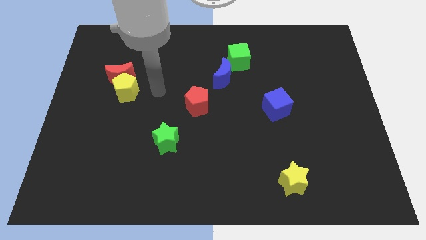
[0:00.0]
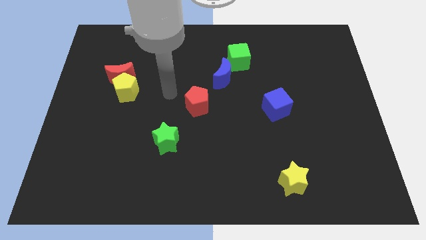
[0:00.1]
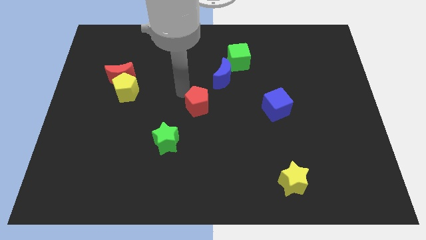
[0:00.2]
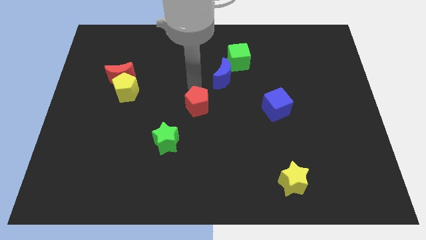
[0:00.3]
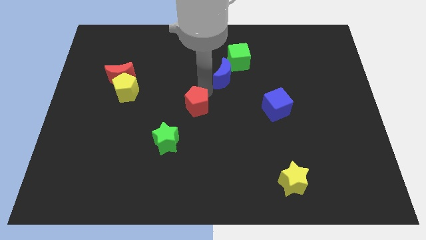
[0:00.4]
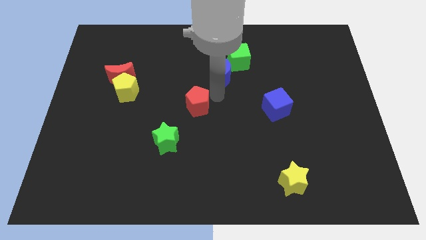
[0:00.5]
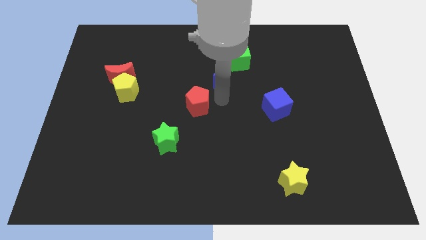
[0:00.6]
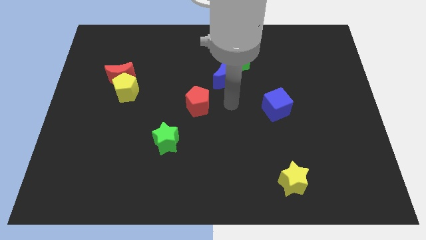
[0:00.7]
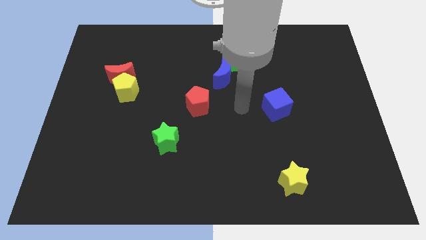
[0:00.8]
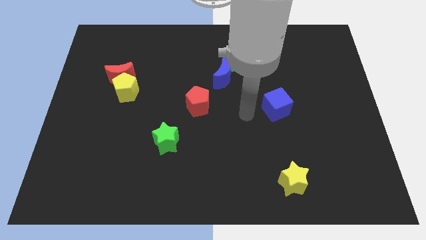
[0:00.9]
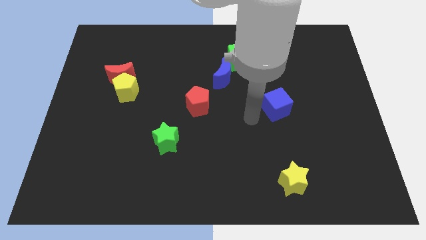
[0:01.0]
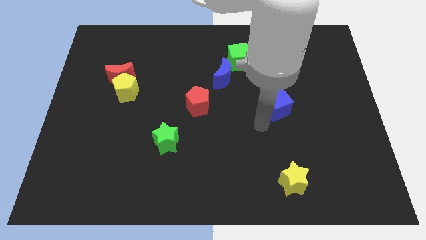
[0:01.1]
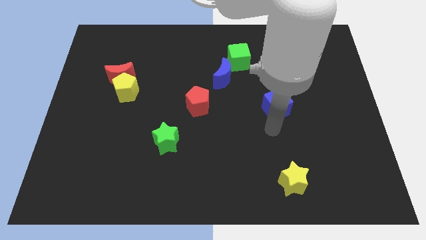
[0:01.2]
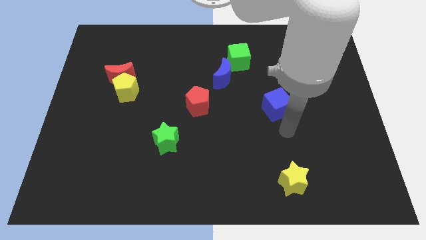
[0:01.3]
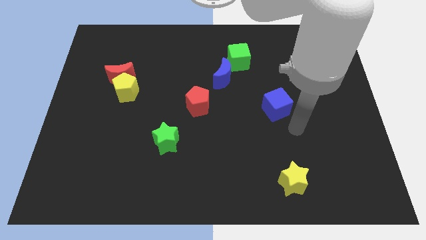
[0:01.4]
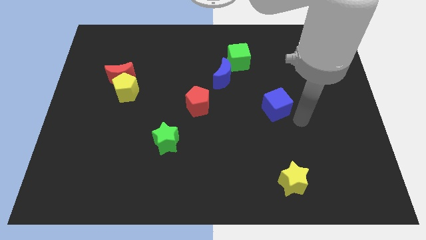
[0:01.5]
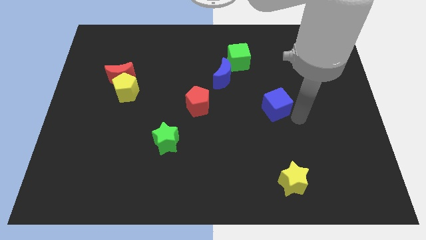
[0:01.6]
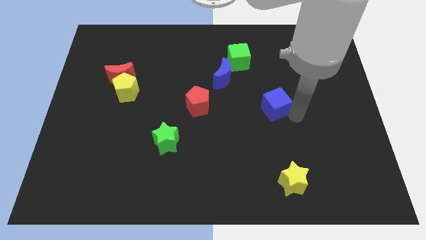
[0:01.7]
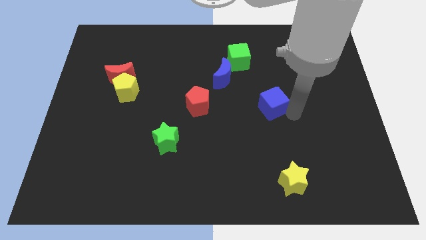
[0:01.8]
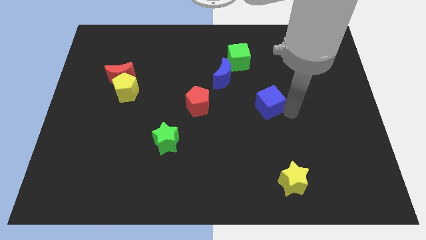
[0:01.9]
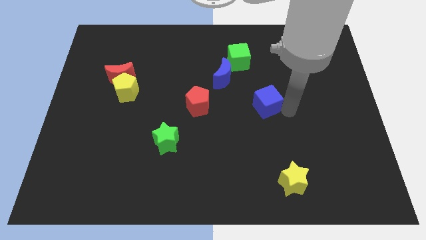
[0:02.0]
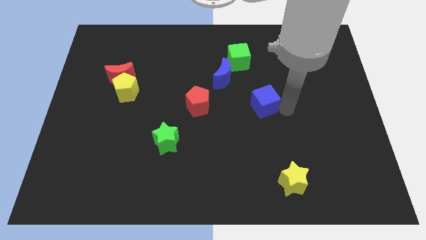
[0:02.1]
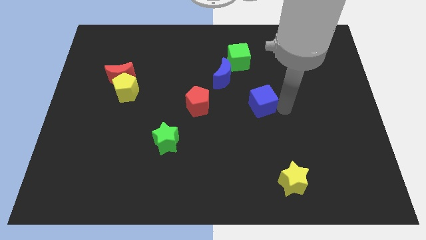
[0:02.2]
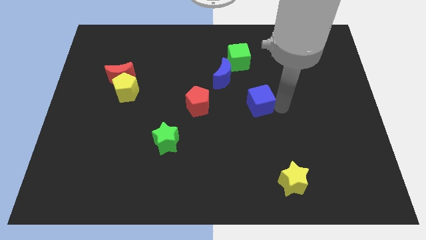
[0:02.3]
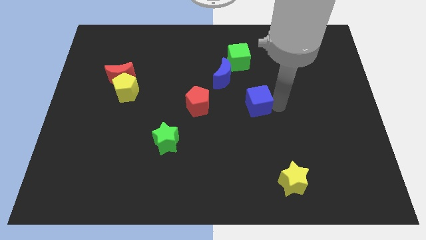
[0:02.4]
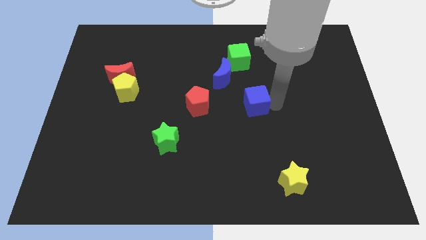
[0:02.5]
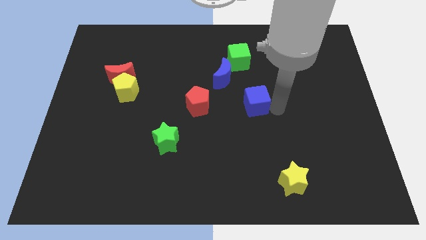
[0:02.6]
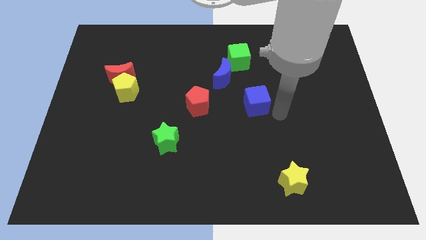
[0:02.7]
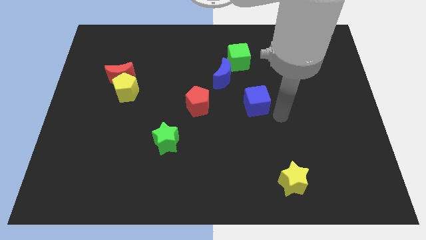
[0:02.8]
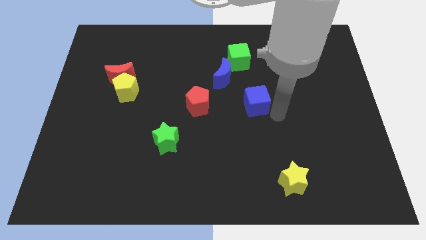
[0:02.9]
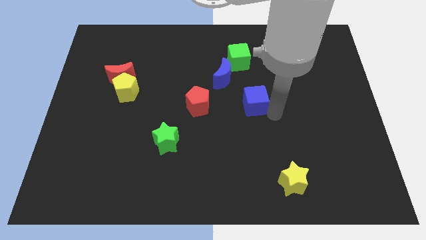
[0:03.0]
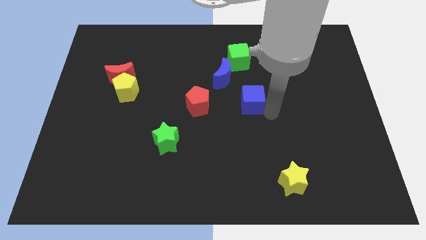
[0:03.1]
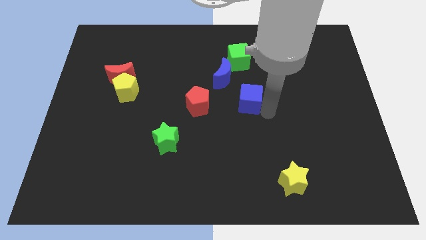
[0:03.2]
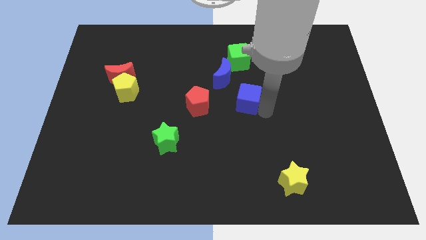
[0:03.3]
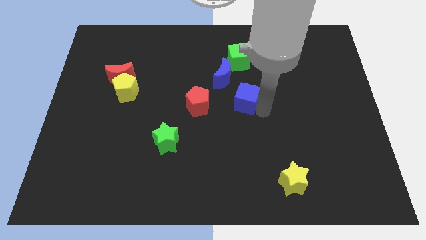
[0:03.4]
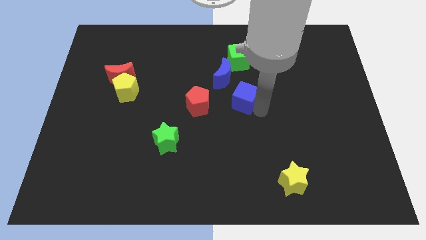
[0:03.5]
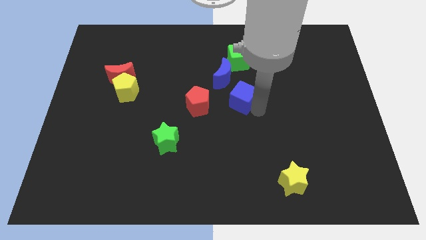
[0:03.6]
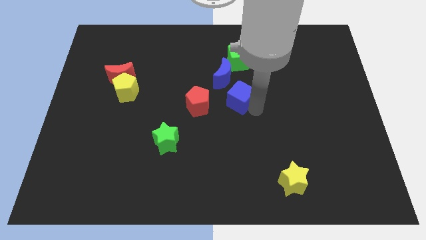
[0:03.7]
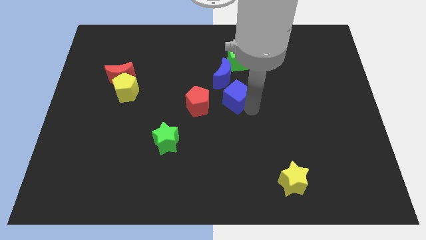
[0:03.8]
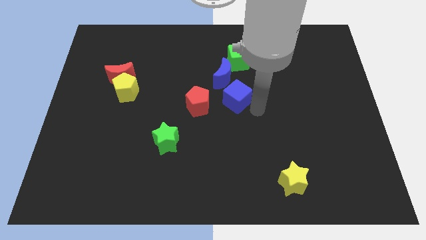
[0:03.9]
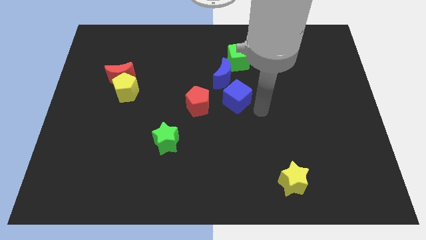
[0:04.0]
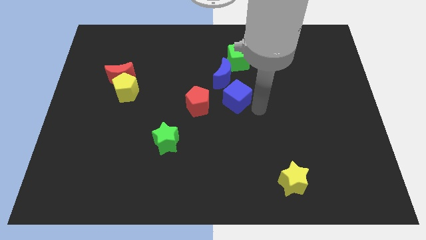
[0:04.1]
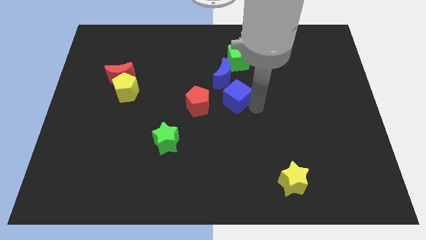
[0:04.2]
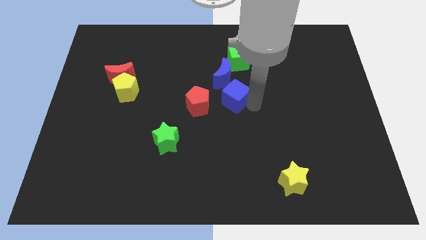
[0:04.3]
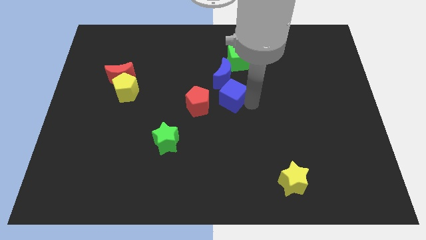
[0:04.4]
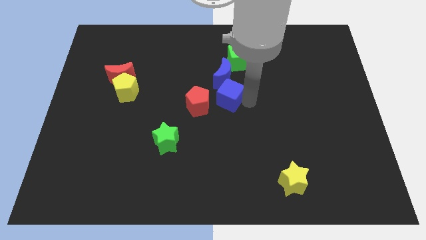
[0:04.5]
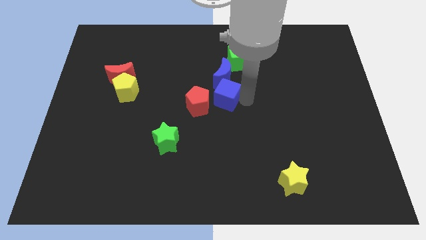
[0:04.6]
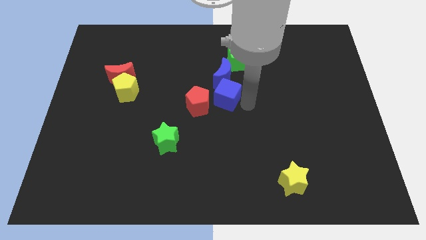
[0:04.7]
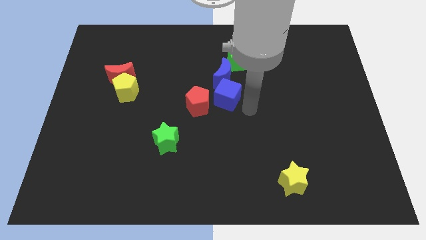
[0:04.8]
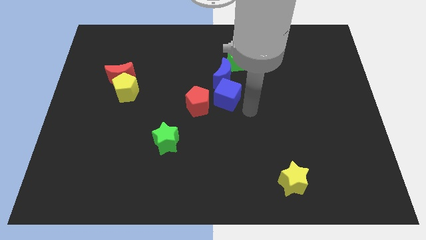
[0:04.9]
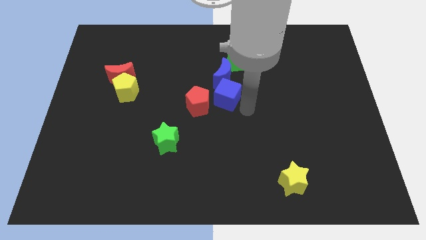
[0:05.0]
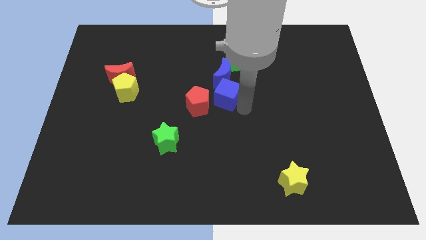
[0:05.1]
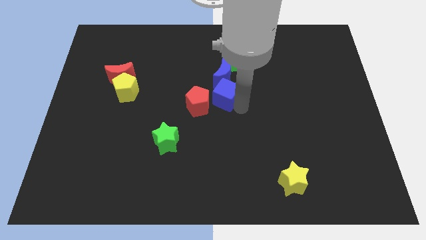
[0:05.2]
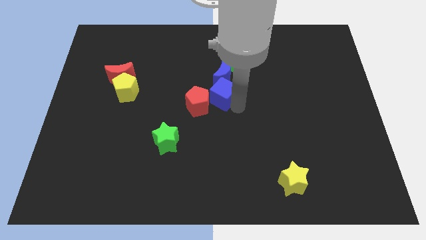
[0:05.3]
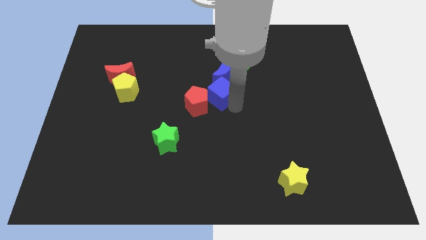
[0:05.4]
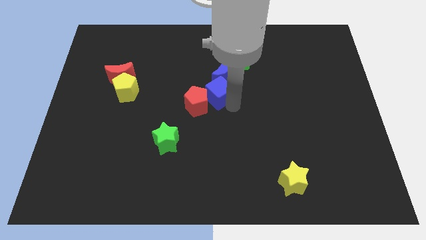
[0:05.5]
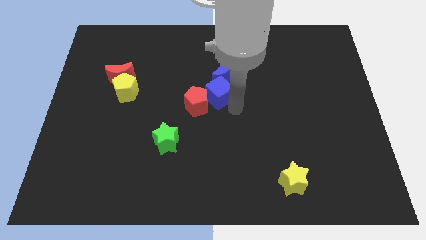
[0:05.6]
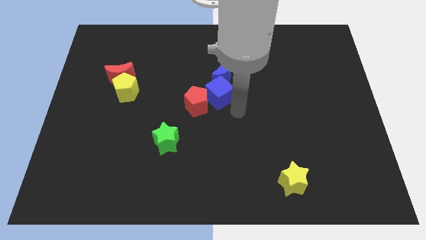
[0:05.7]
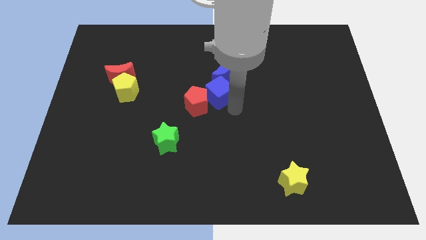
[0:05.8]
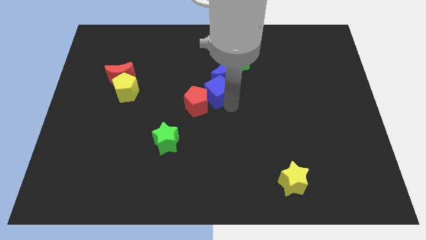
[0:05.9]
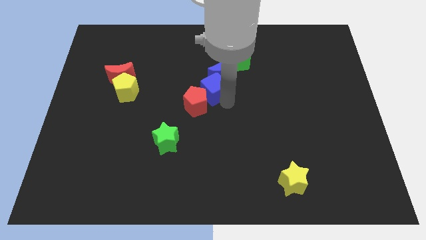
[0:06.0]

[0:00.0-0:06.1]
put the blue cube above the red pentagon
